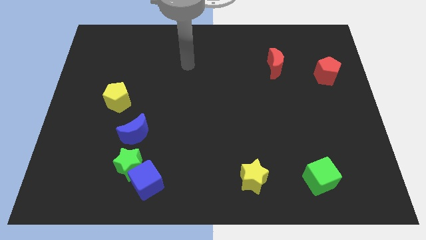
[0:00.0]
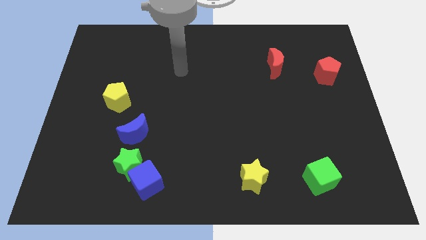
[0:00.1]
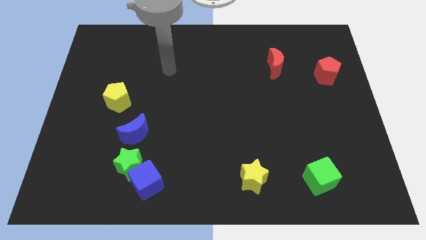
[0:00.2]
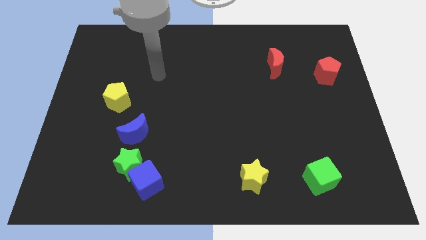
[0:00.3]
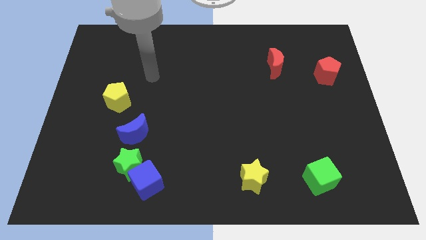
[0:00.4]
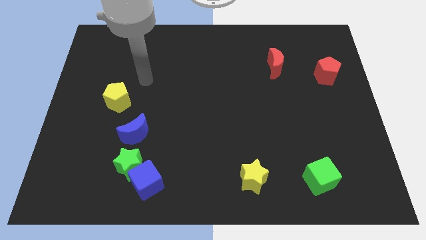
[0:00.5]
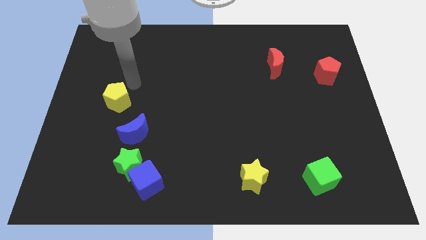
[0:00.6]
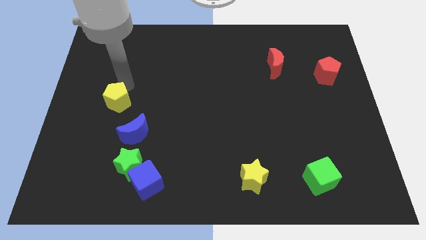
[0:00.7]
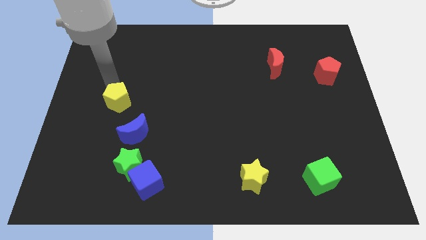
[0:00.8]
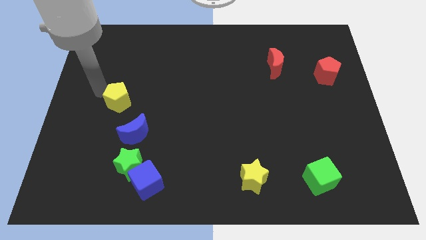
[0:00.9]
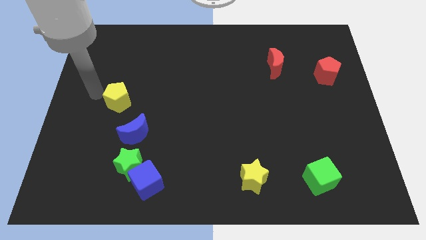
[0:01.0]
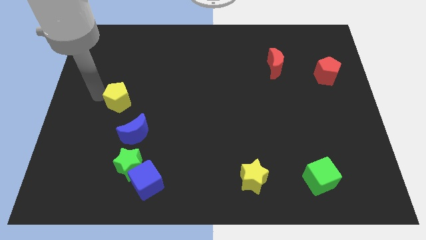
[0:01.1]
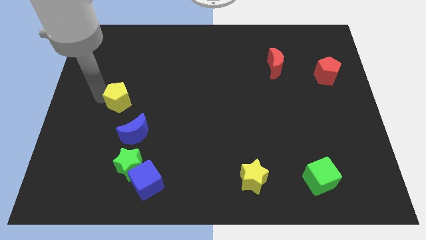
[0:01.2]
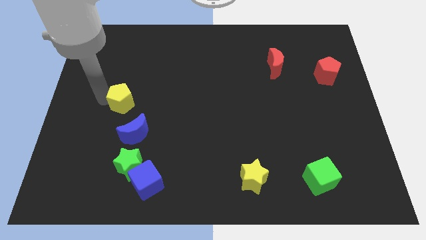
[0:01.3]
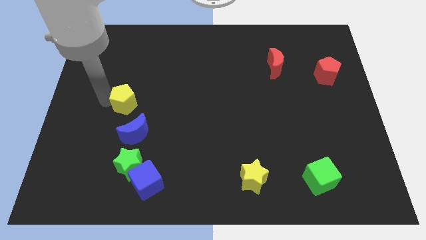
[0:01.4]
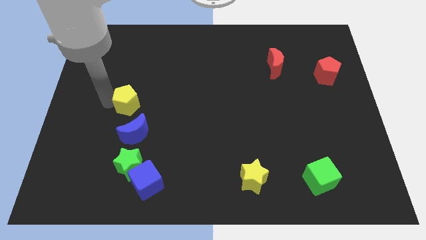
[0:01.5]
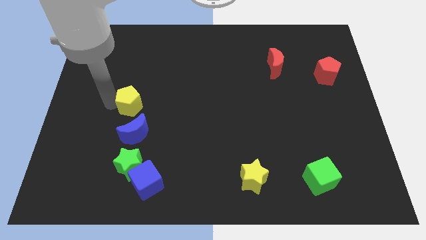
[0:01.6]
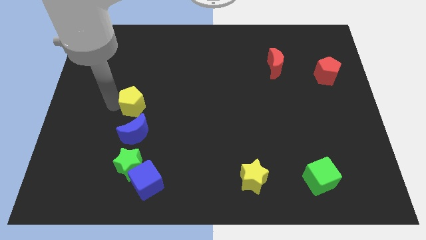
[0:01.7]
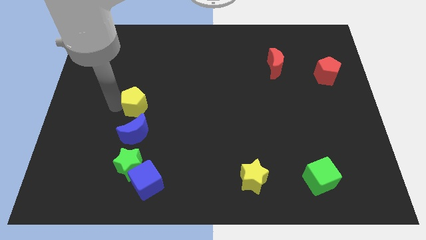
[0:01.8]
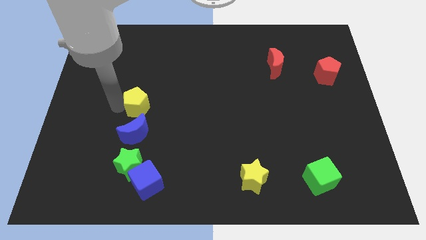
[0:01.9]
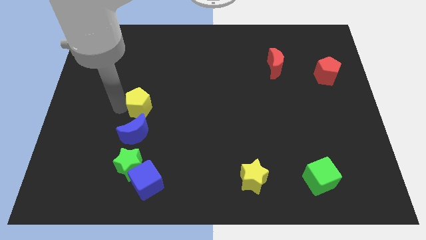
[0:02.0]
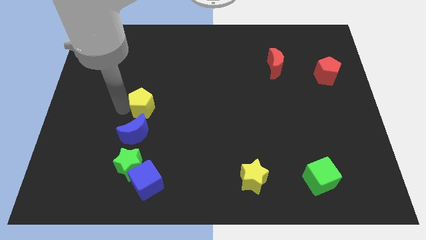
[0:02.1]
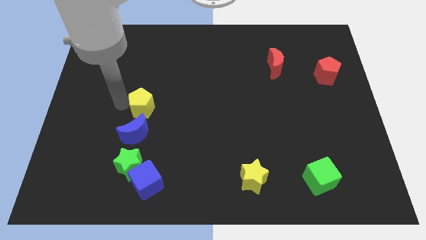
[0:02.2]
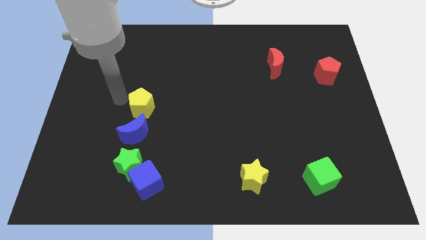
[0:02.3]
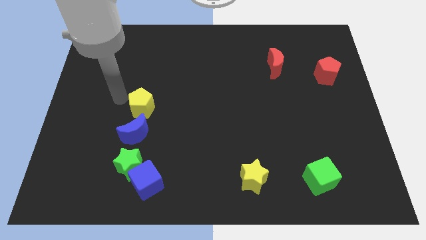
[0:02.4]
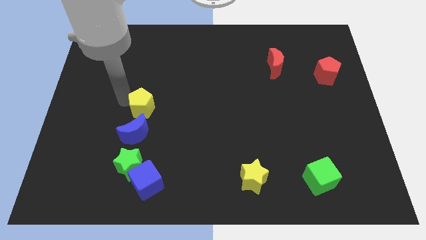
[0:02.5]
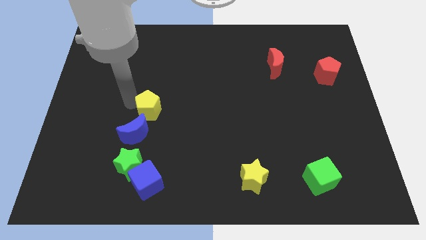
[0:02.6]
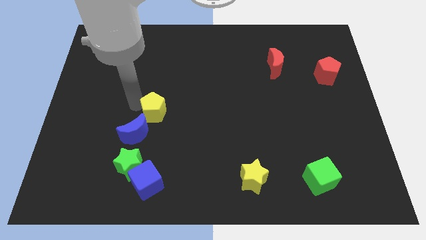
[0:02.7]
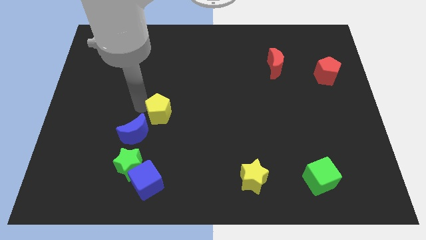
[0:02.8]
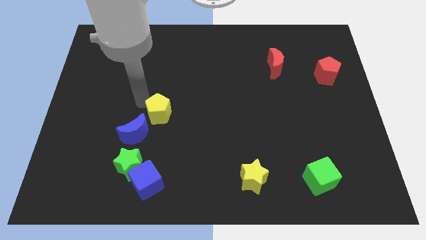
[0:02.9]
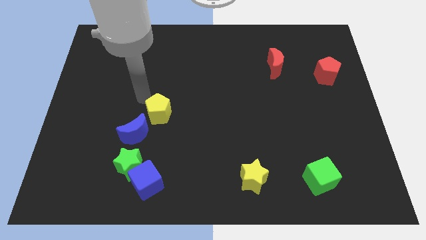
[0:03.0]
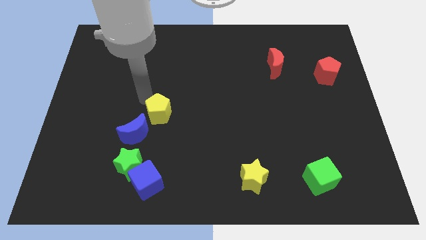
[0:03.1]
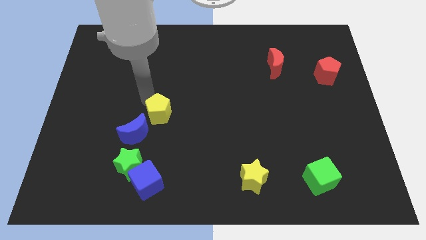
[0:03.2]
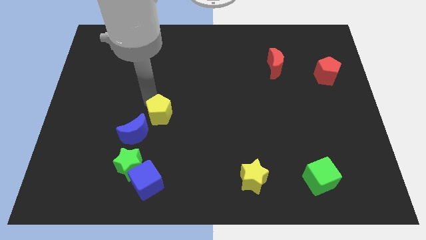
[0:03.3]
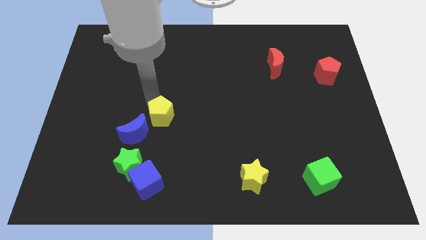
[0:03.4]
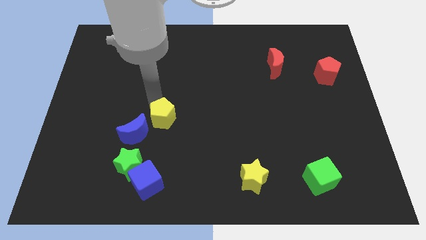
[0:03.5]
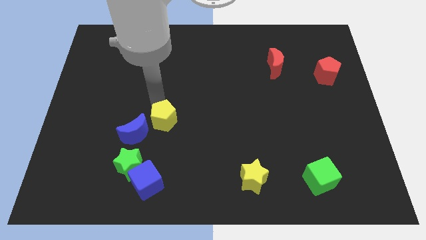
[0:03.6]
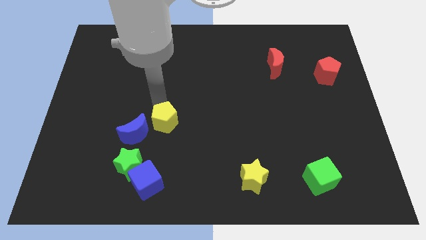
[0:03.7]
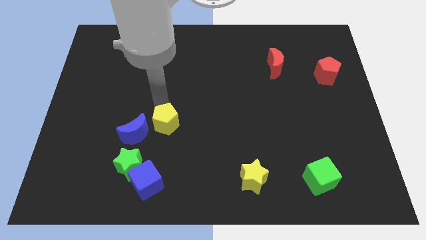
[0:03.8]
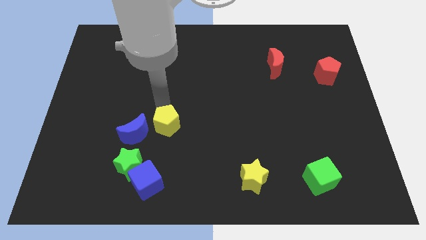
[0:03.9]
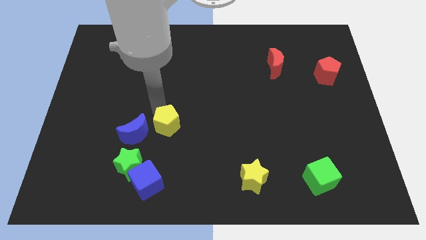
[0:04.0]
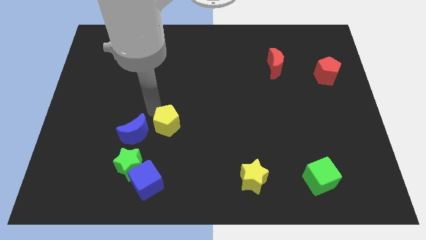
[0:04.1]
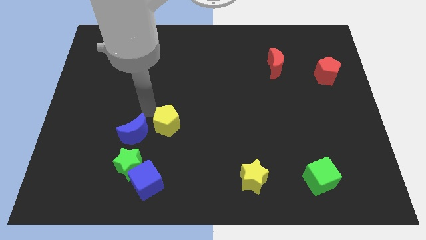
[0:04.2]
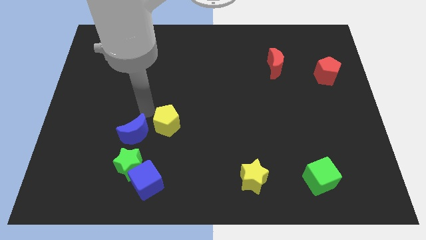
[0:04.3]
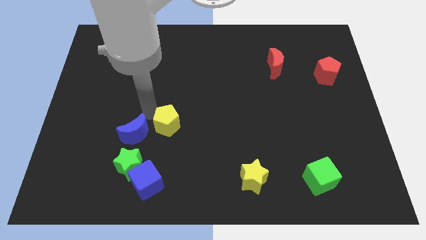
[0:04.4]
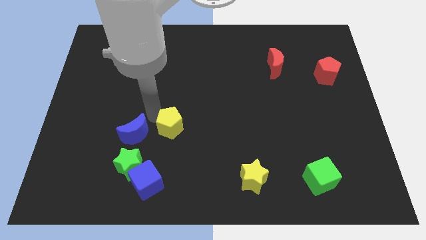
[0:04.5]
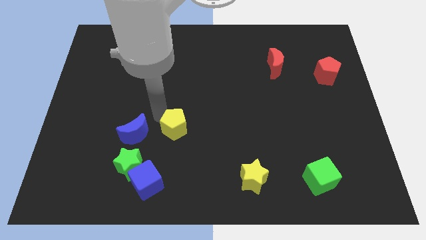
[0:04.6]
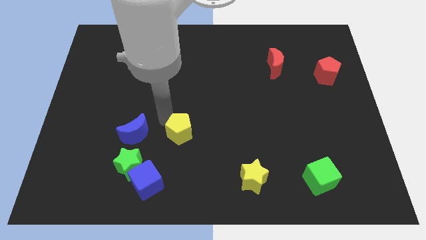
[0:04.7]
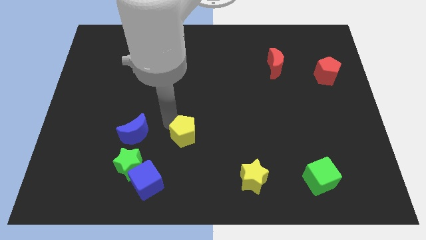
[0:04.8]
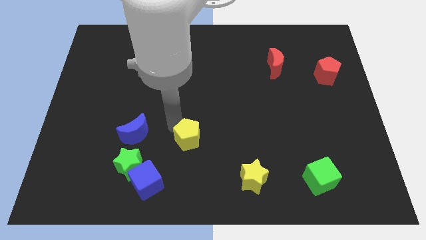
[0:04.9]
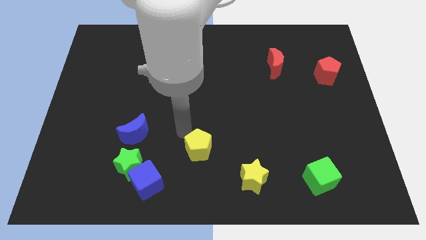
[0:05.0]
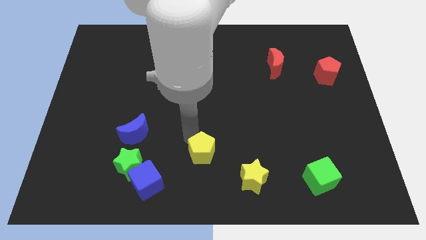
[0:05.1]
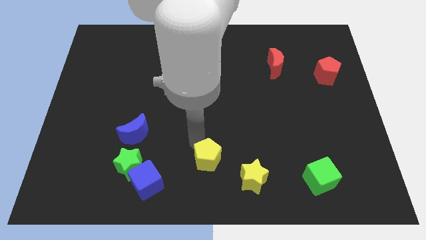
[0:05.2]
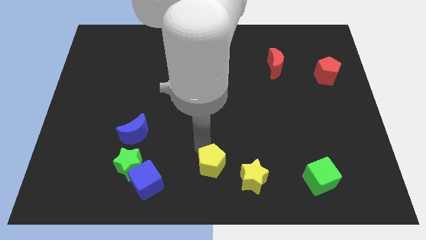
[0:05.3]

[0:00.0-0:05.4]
move the yellow pentagon just right of the blue cube
